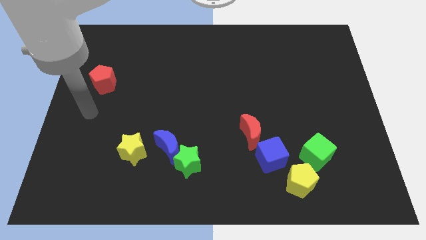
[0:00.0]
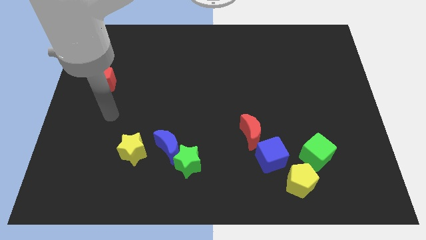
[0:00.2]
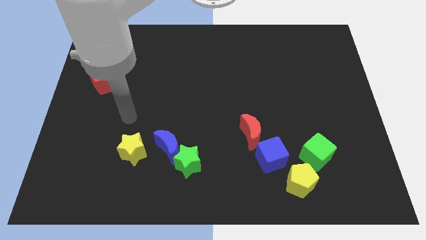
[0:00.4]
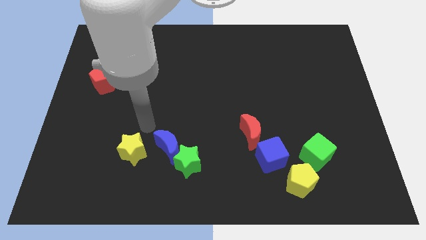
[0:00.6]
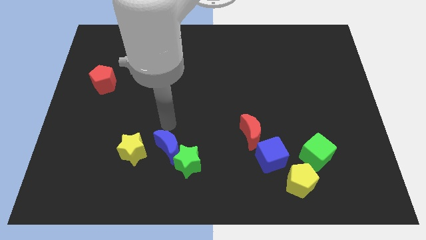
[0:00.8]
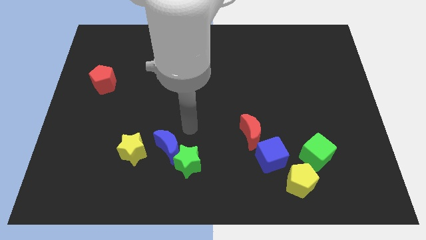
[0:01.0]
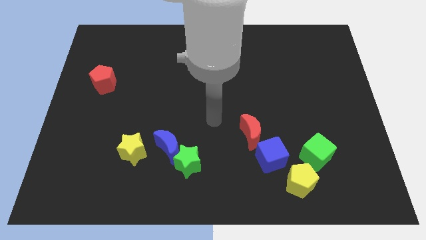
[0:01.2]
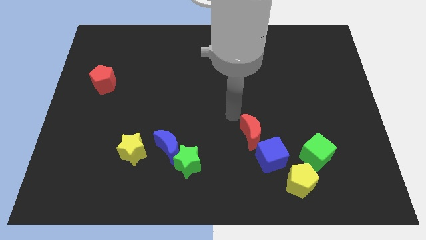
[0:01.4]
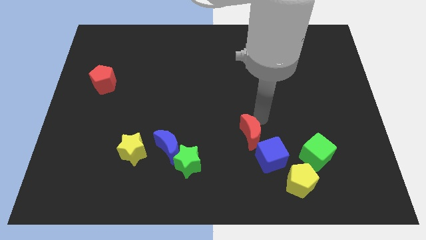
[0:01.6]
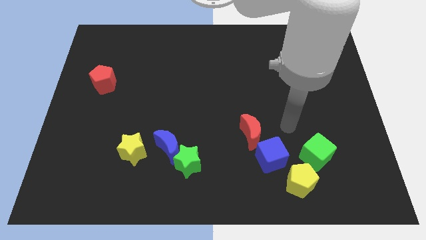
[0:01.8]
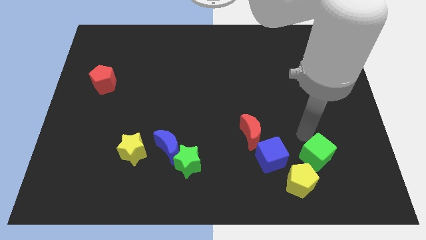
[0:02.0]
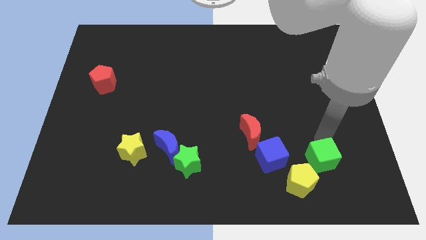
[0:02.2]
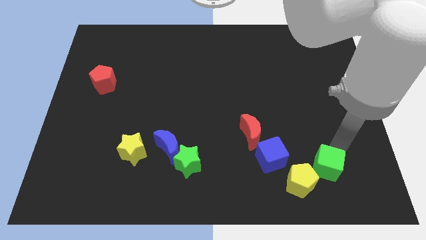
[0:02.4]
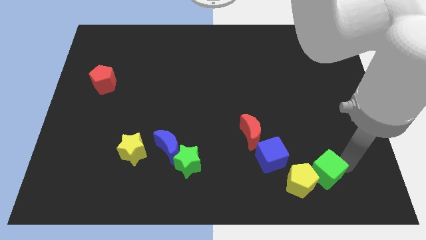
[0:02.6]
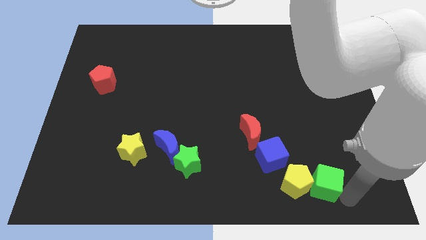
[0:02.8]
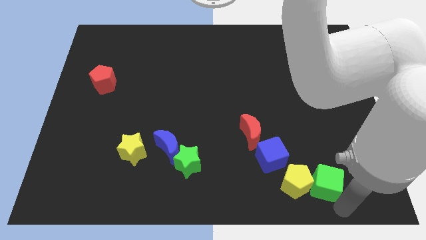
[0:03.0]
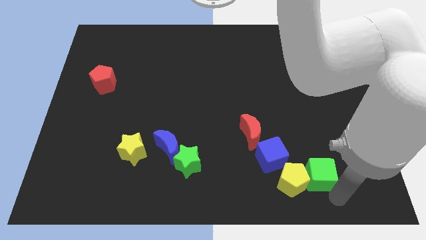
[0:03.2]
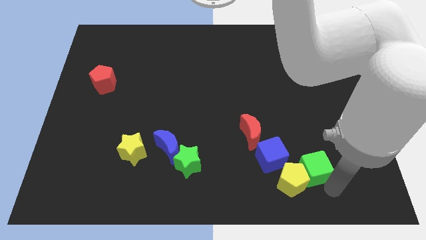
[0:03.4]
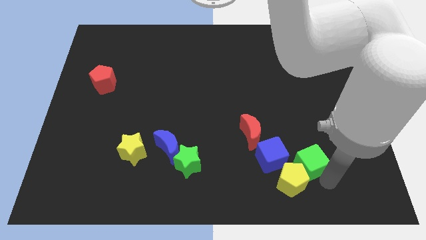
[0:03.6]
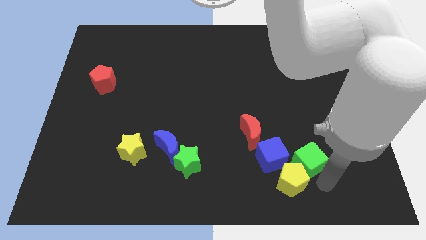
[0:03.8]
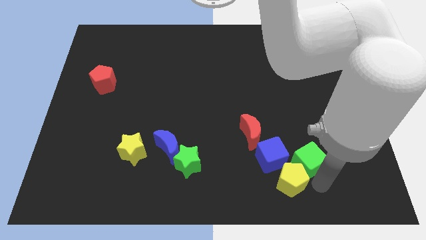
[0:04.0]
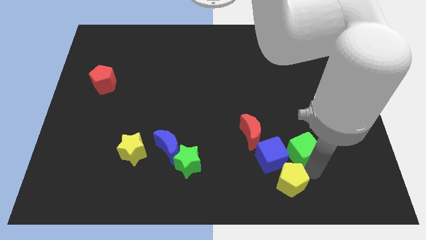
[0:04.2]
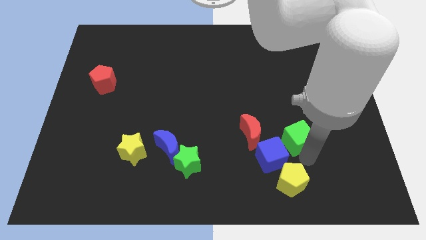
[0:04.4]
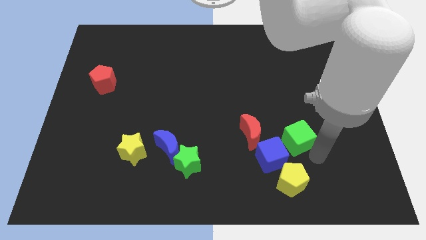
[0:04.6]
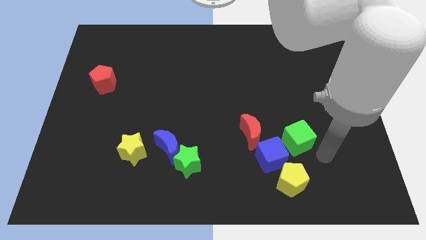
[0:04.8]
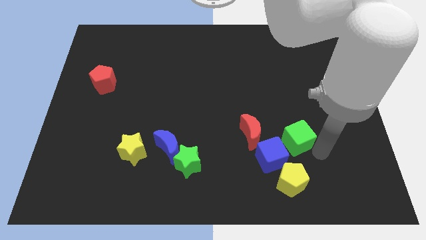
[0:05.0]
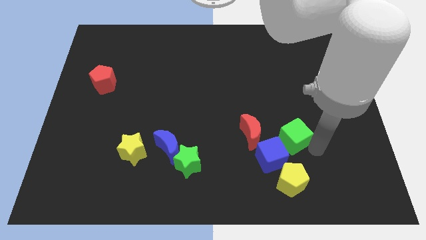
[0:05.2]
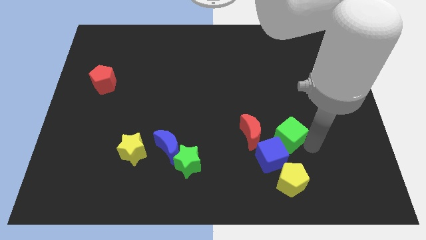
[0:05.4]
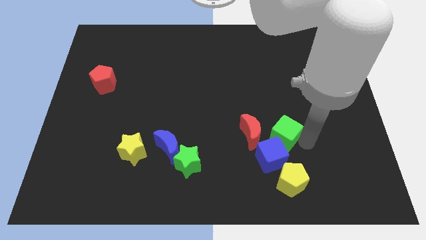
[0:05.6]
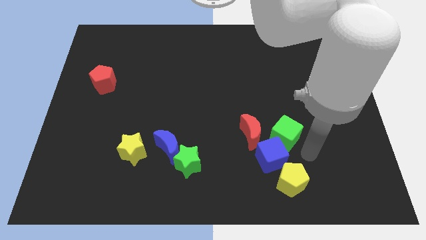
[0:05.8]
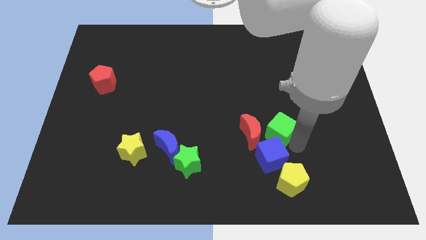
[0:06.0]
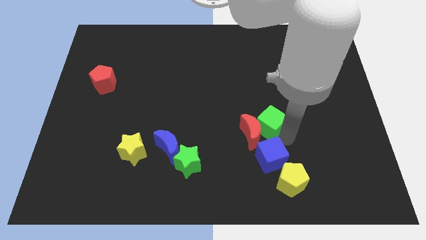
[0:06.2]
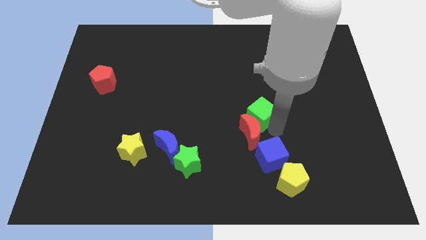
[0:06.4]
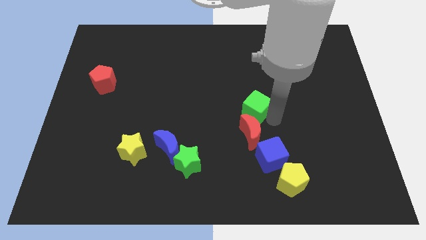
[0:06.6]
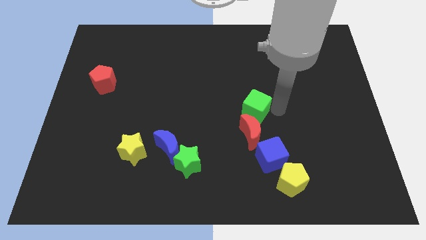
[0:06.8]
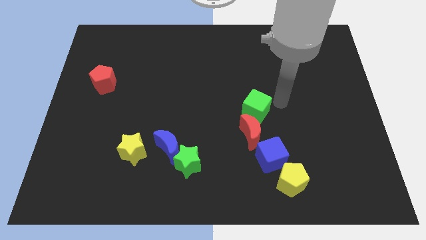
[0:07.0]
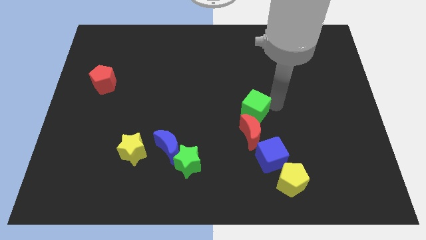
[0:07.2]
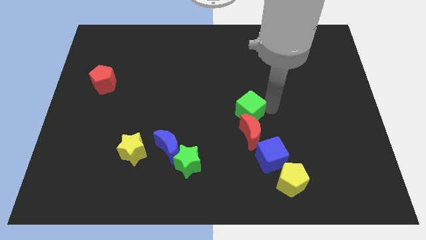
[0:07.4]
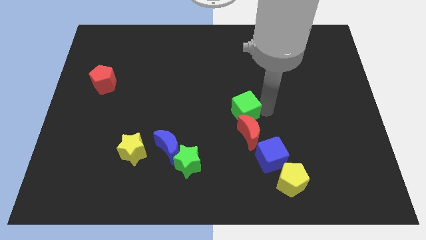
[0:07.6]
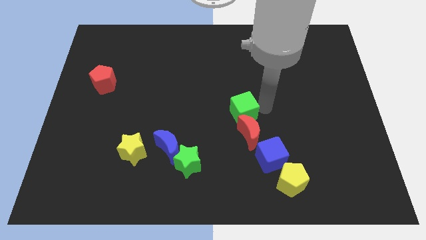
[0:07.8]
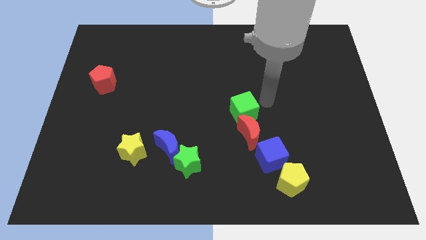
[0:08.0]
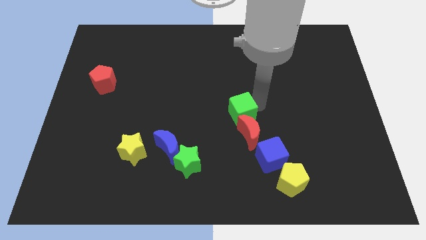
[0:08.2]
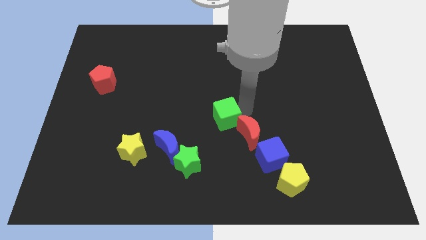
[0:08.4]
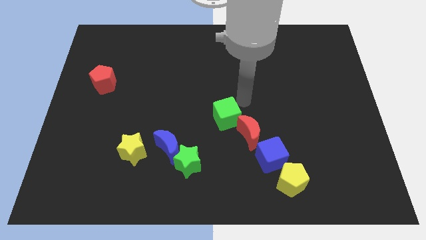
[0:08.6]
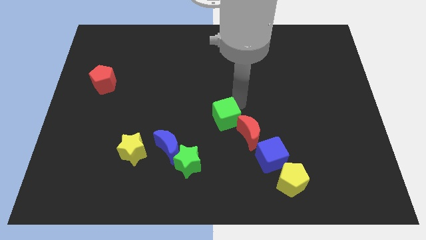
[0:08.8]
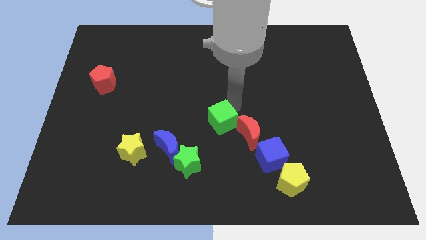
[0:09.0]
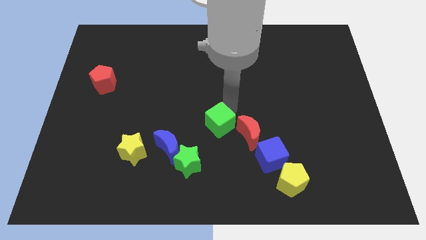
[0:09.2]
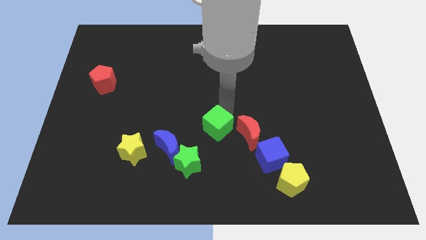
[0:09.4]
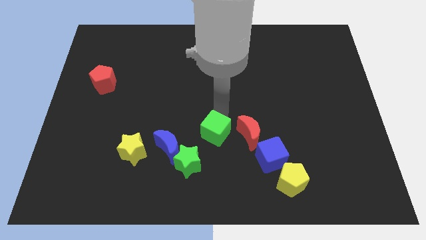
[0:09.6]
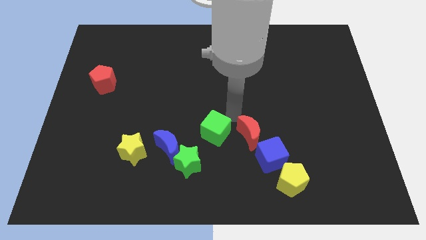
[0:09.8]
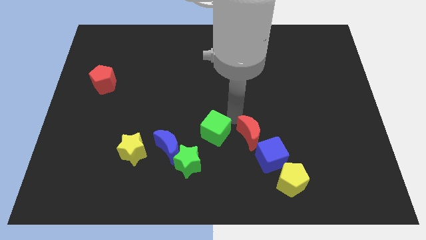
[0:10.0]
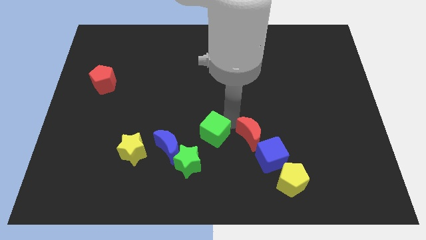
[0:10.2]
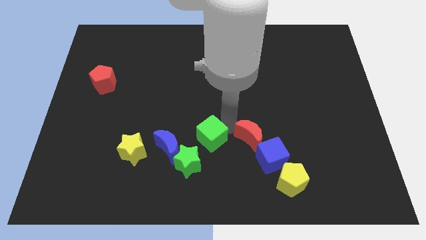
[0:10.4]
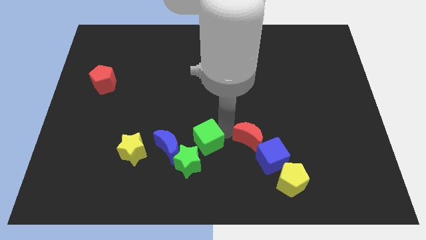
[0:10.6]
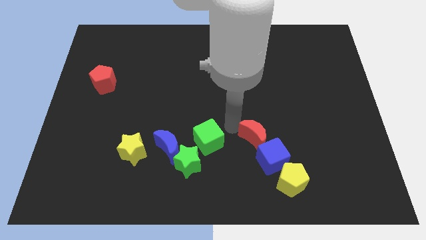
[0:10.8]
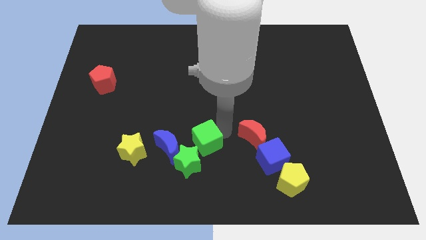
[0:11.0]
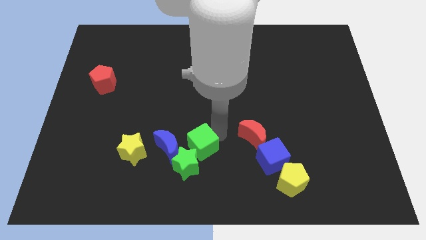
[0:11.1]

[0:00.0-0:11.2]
put the green cube next to the green star

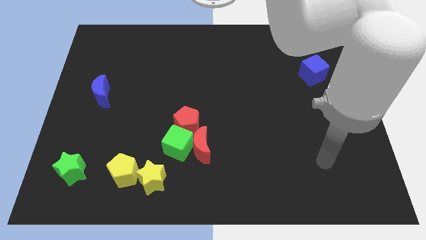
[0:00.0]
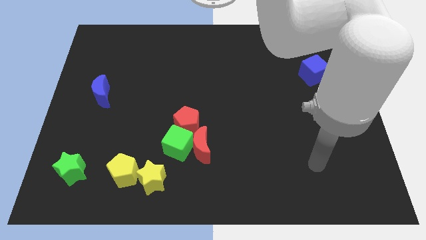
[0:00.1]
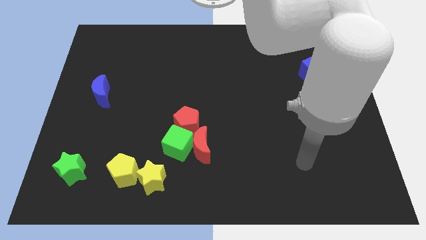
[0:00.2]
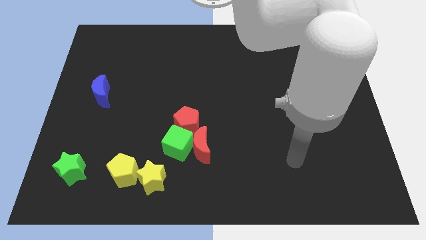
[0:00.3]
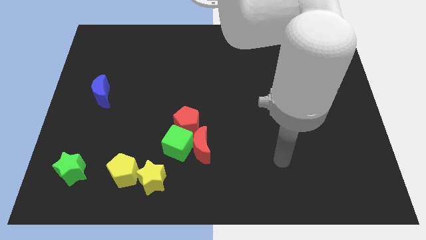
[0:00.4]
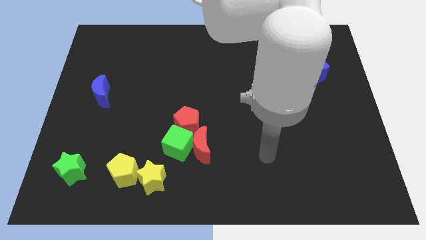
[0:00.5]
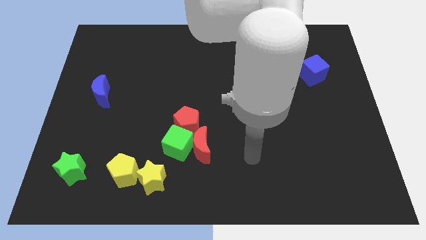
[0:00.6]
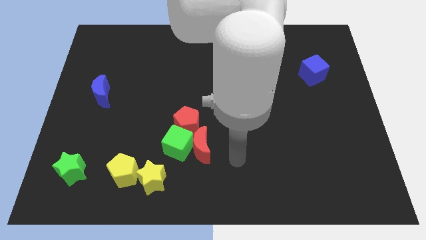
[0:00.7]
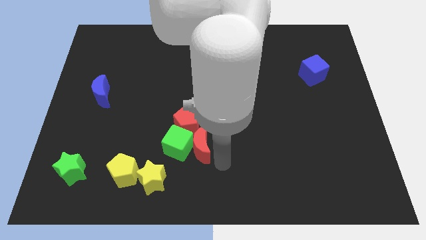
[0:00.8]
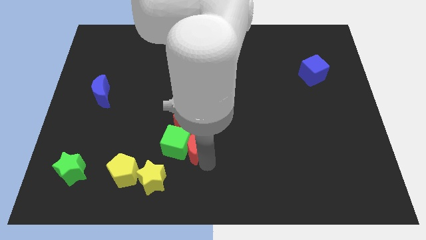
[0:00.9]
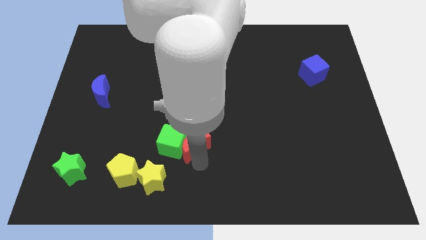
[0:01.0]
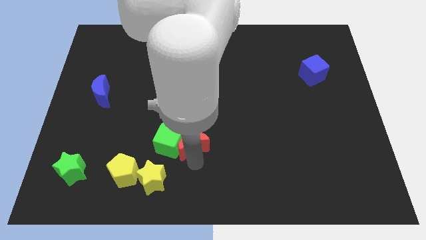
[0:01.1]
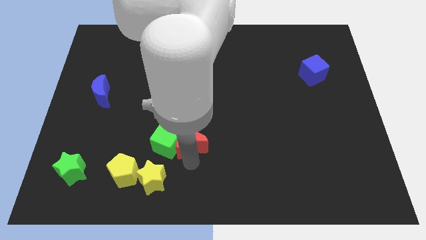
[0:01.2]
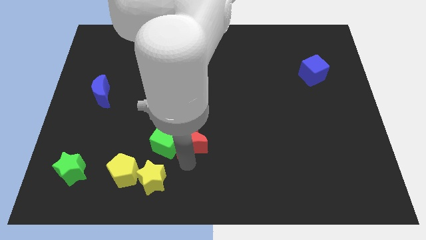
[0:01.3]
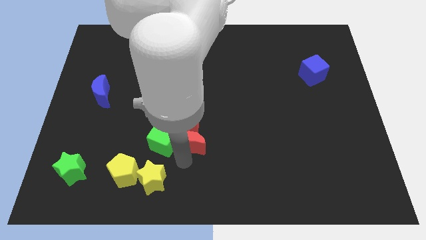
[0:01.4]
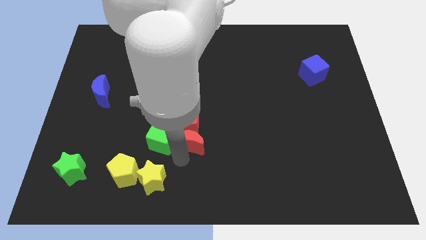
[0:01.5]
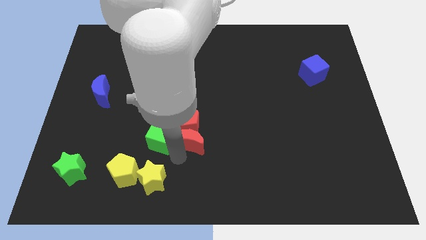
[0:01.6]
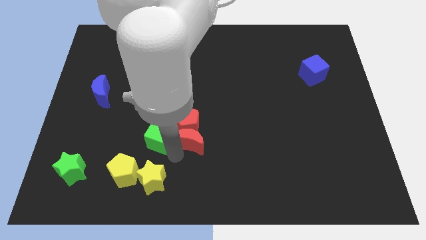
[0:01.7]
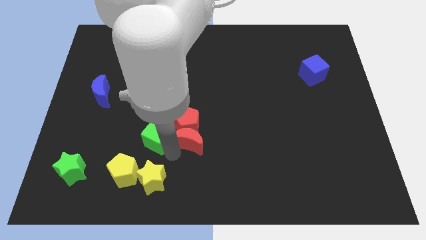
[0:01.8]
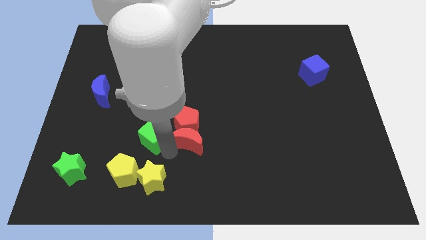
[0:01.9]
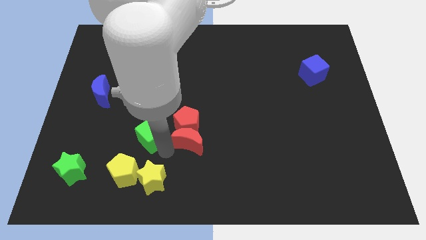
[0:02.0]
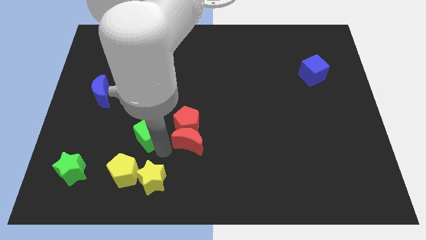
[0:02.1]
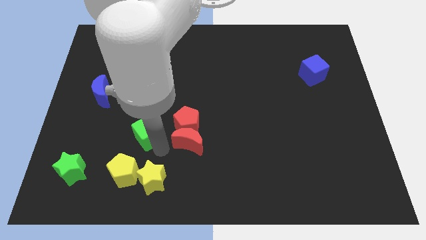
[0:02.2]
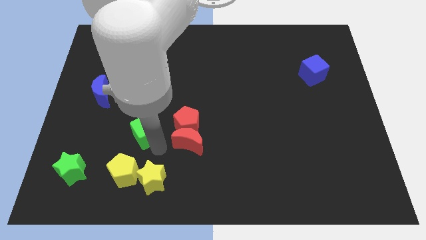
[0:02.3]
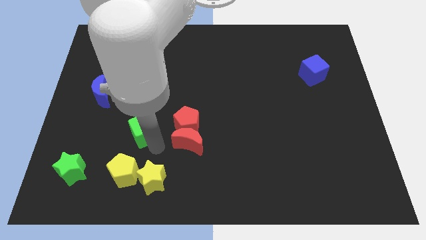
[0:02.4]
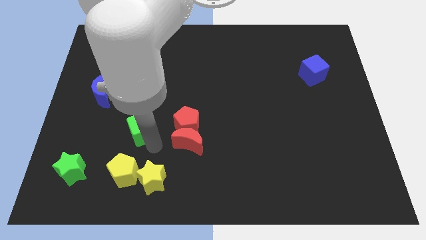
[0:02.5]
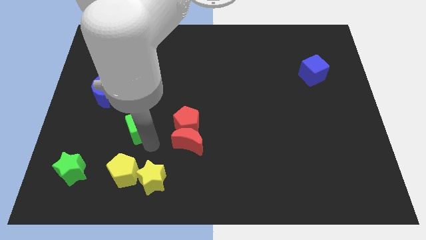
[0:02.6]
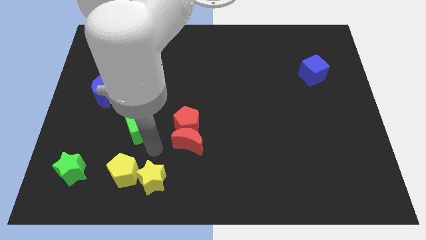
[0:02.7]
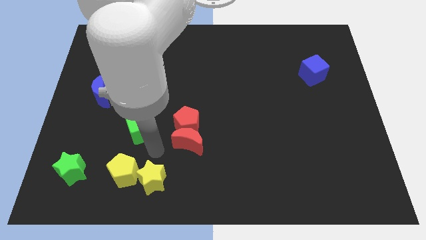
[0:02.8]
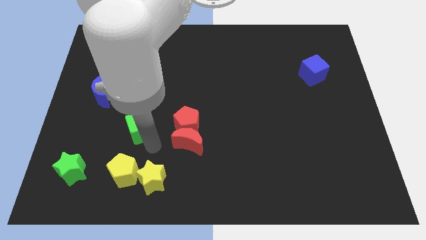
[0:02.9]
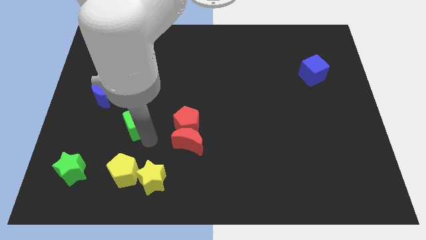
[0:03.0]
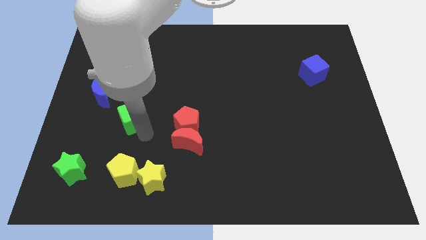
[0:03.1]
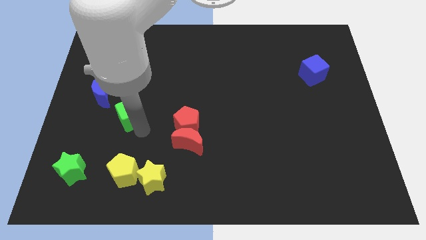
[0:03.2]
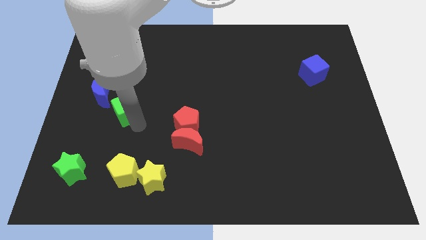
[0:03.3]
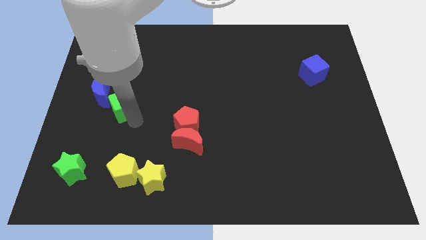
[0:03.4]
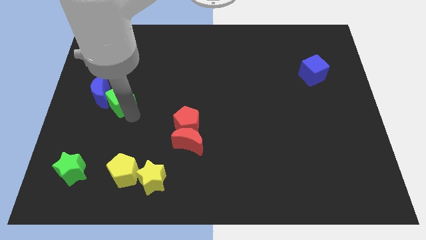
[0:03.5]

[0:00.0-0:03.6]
put the green cube next to the blue moon
